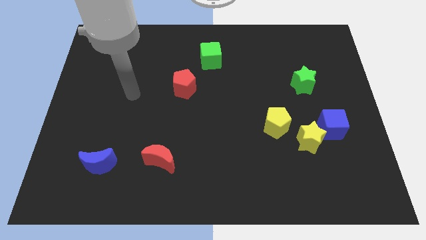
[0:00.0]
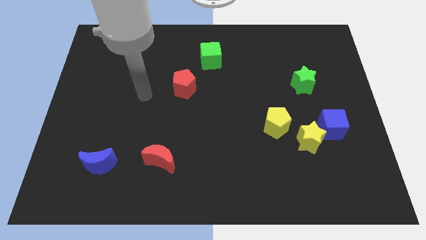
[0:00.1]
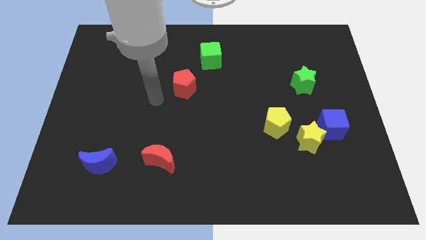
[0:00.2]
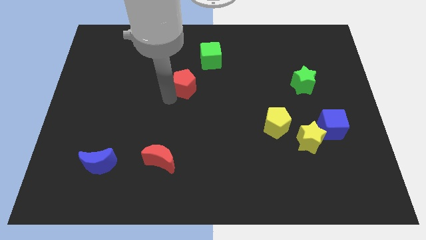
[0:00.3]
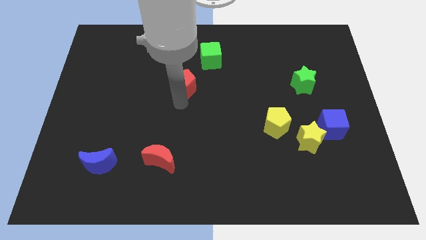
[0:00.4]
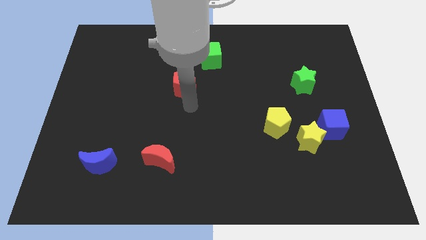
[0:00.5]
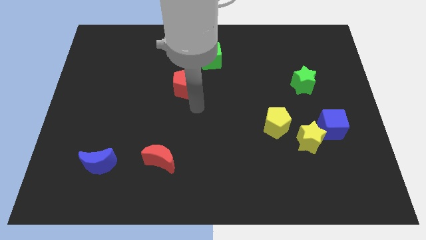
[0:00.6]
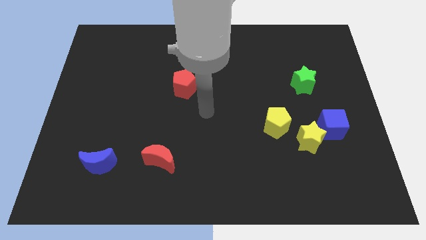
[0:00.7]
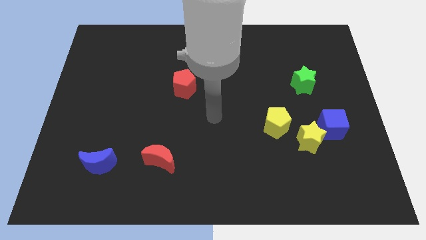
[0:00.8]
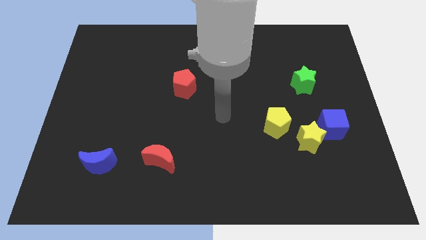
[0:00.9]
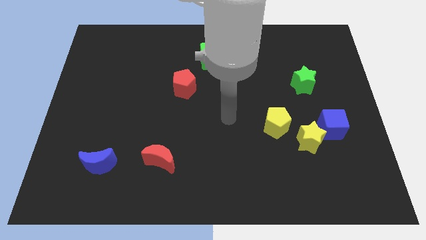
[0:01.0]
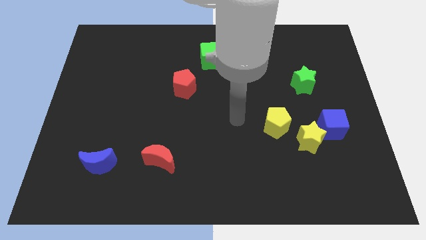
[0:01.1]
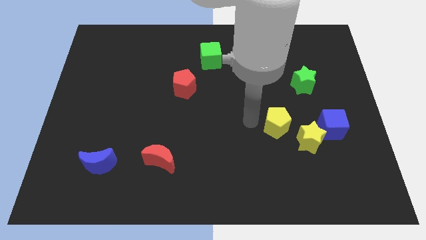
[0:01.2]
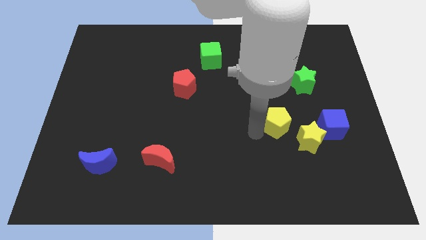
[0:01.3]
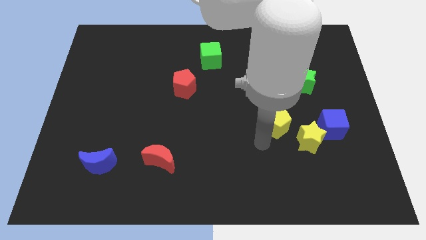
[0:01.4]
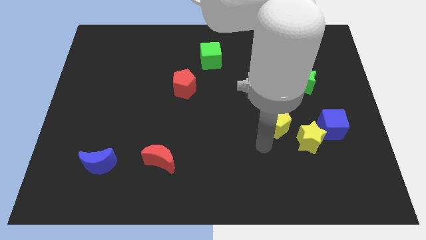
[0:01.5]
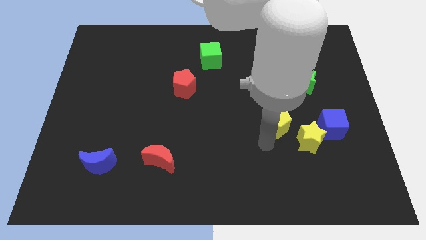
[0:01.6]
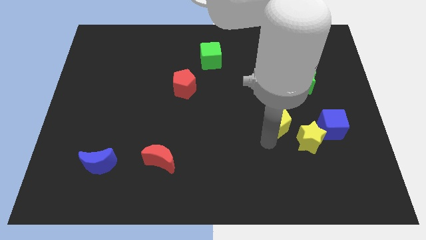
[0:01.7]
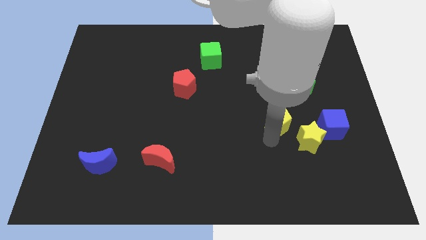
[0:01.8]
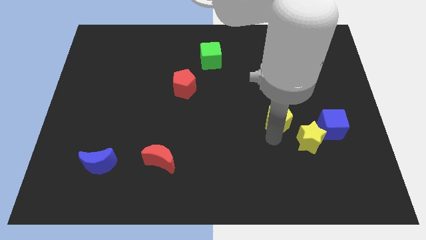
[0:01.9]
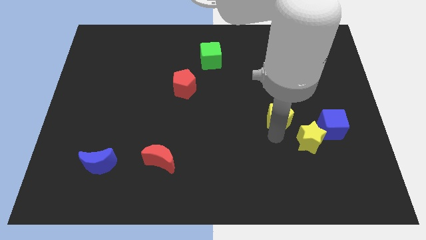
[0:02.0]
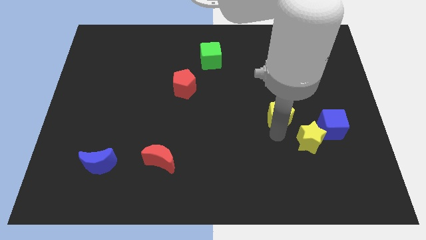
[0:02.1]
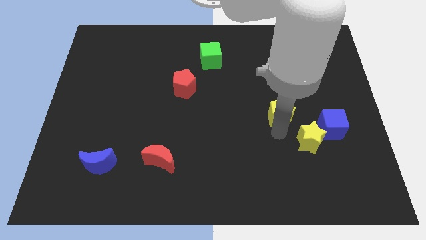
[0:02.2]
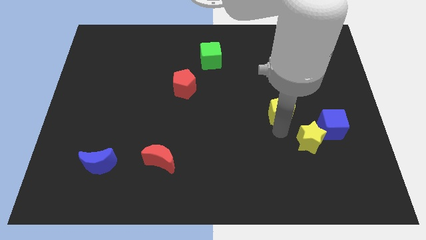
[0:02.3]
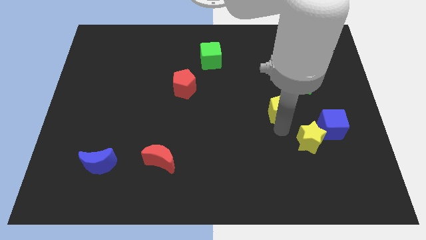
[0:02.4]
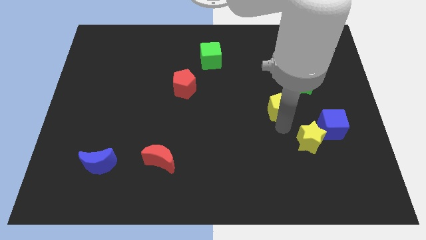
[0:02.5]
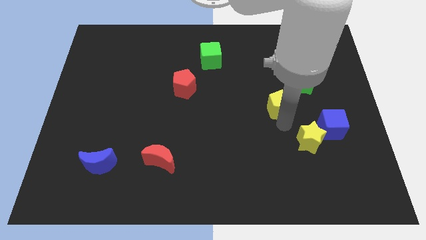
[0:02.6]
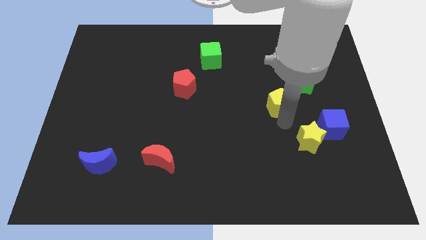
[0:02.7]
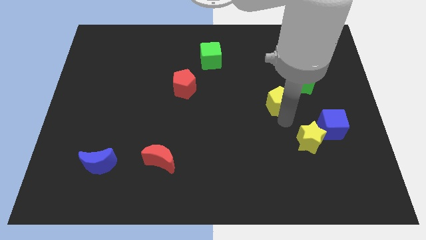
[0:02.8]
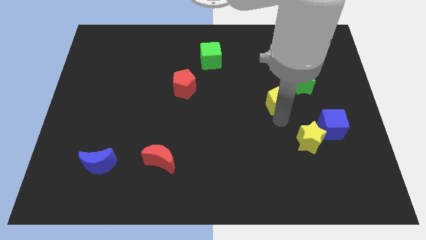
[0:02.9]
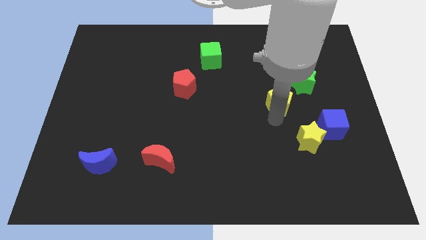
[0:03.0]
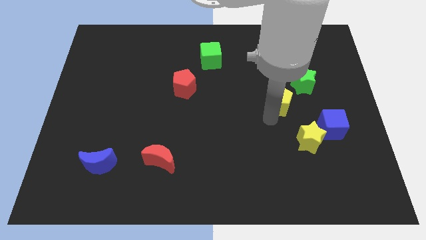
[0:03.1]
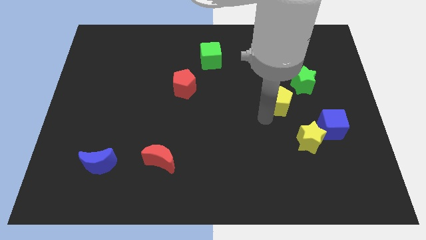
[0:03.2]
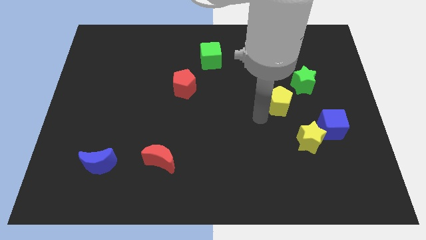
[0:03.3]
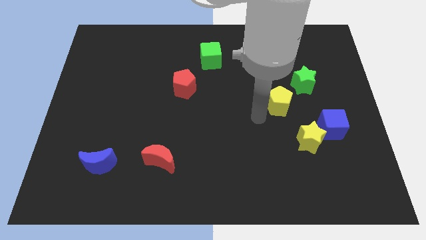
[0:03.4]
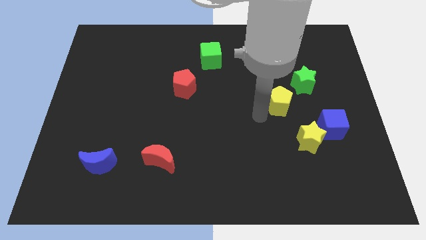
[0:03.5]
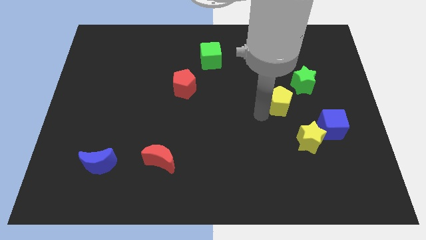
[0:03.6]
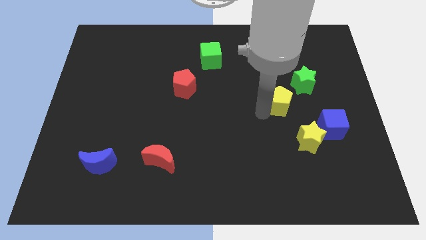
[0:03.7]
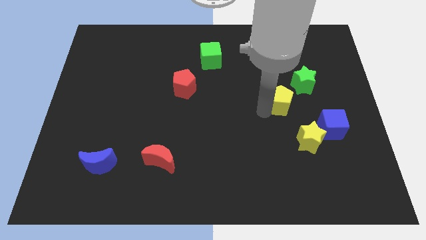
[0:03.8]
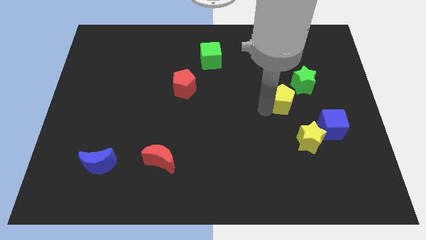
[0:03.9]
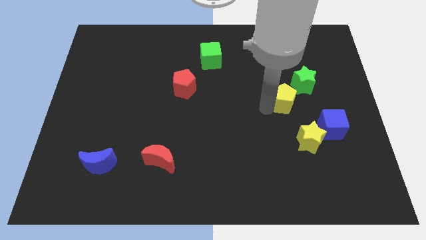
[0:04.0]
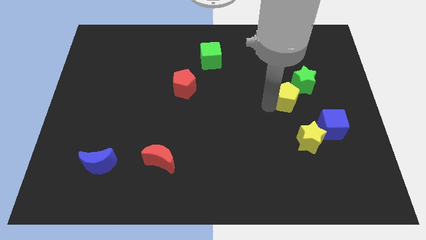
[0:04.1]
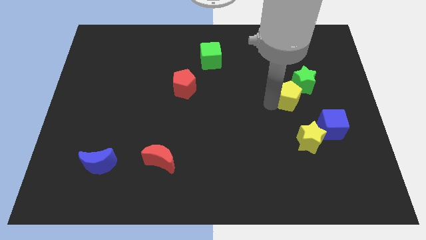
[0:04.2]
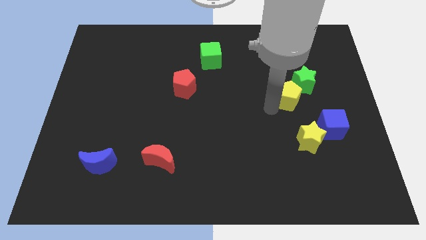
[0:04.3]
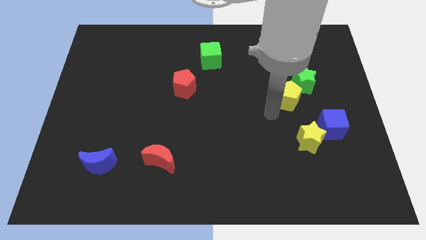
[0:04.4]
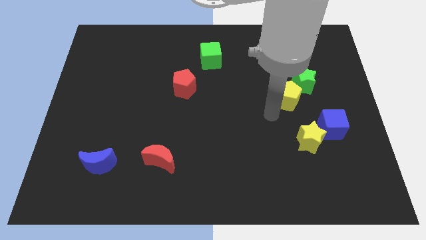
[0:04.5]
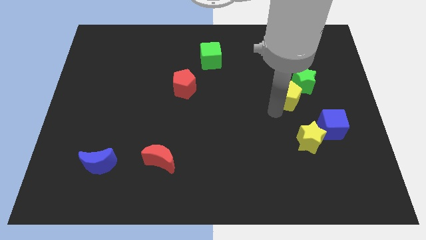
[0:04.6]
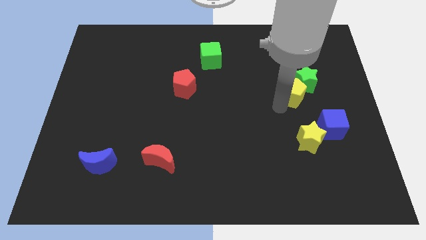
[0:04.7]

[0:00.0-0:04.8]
move the yellow pentagon next to the green star

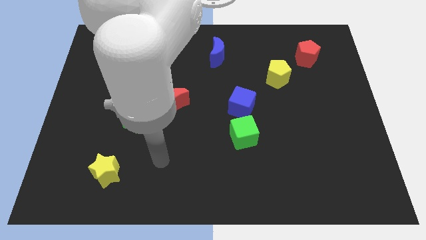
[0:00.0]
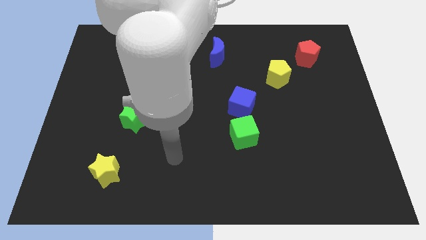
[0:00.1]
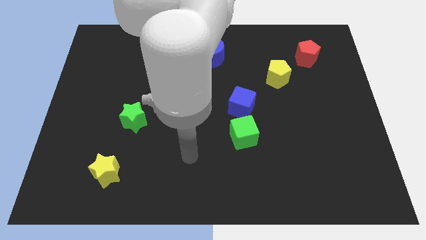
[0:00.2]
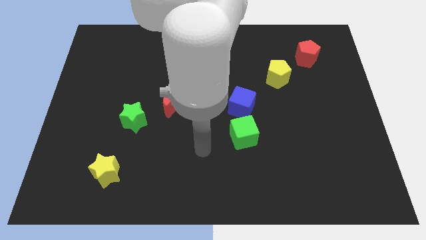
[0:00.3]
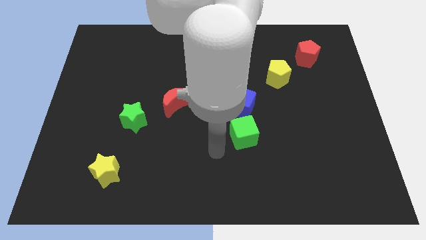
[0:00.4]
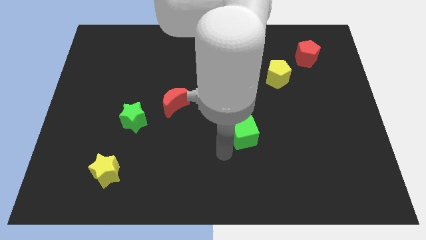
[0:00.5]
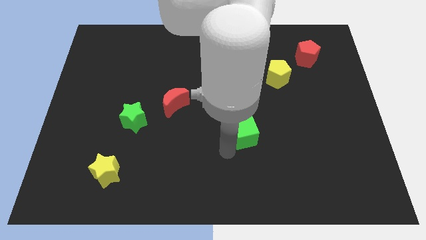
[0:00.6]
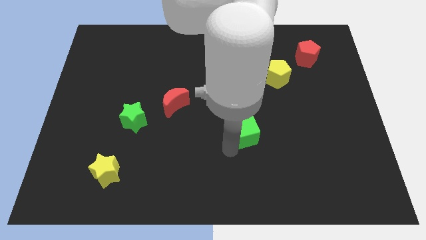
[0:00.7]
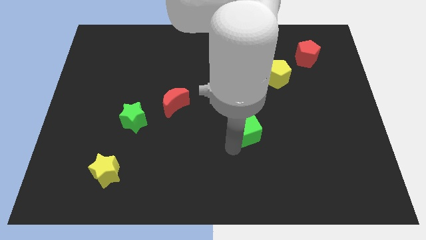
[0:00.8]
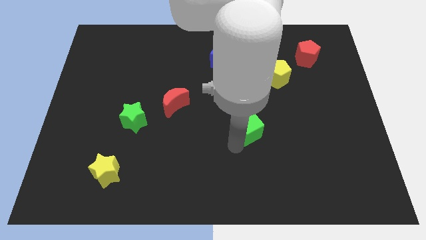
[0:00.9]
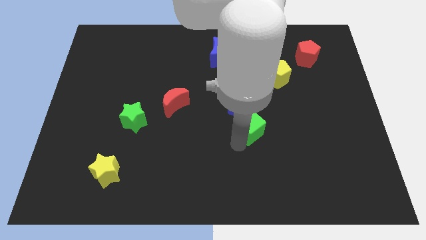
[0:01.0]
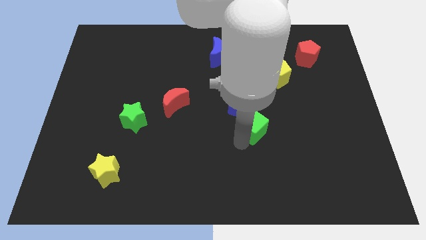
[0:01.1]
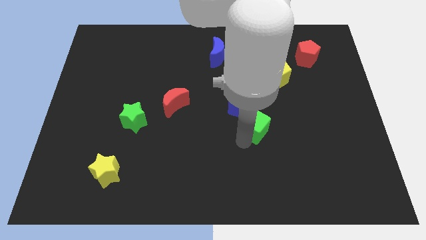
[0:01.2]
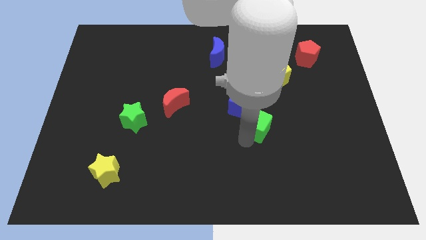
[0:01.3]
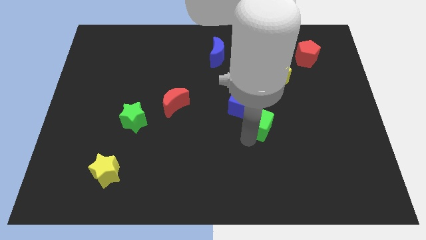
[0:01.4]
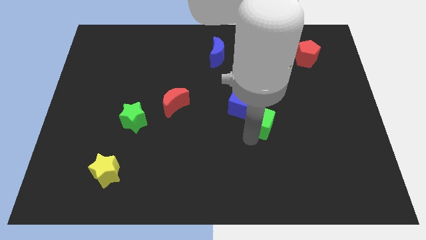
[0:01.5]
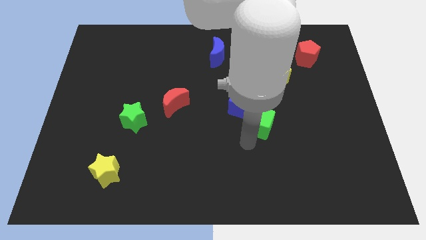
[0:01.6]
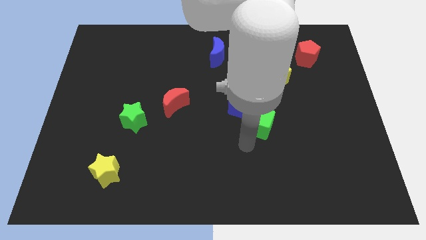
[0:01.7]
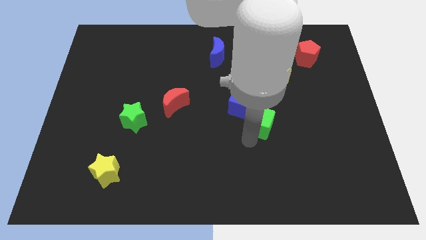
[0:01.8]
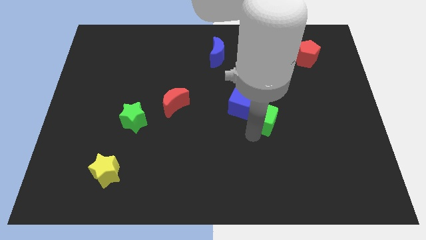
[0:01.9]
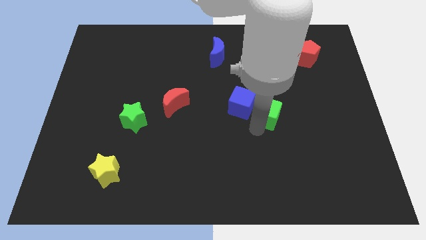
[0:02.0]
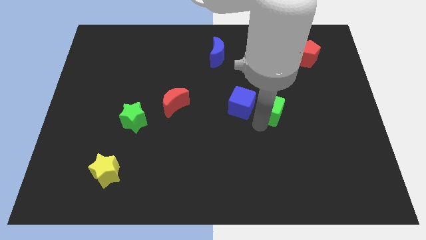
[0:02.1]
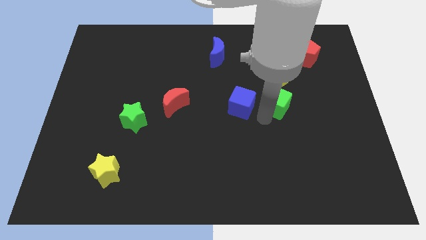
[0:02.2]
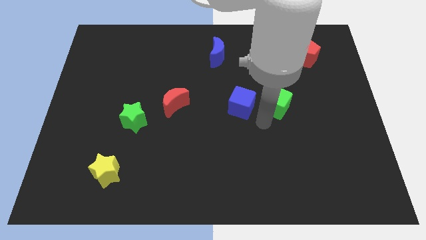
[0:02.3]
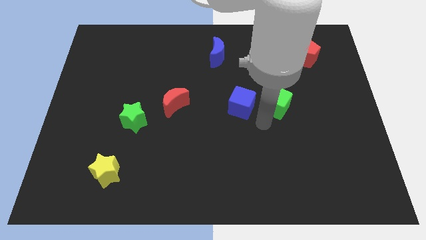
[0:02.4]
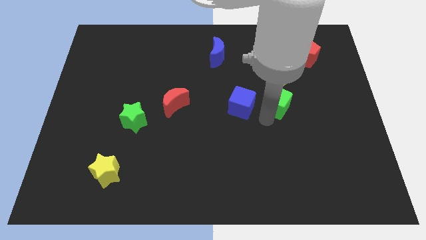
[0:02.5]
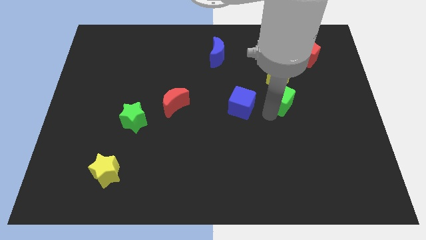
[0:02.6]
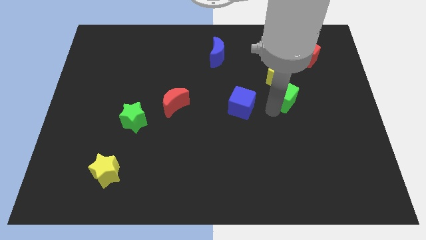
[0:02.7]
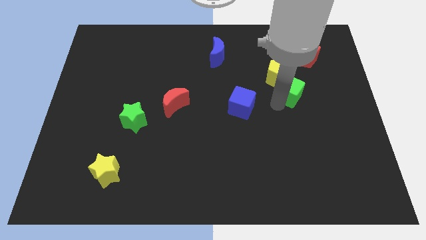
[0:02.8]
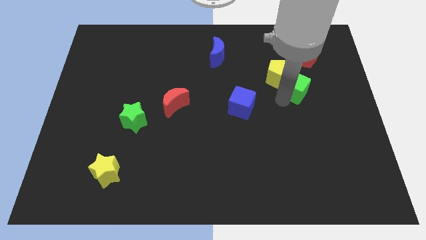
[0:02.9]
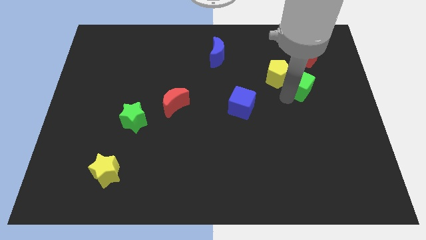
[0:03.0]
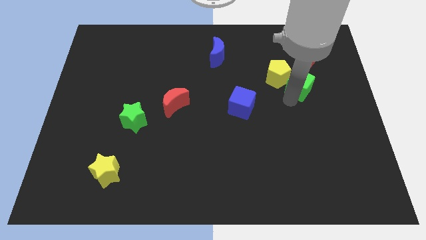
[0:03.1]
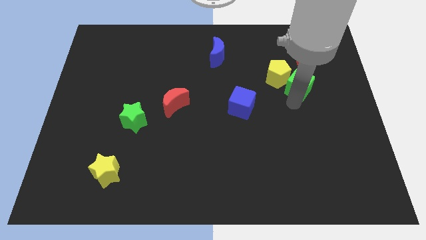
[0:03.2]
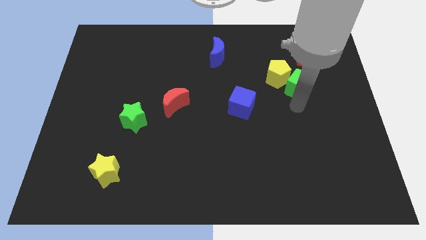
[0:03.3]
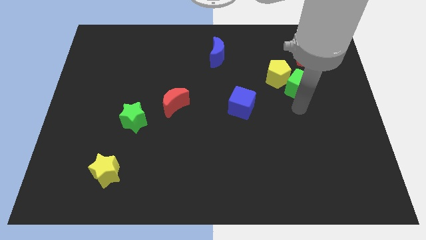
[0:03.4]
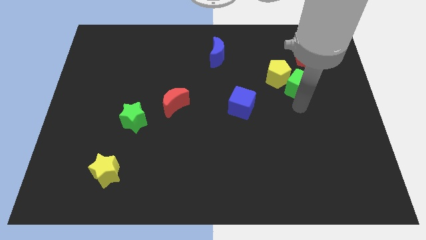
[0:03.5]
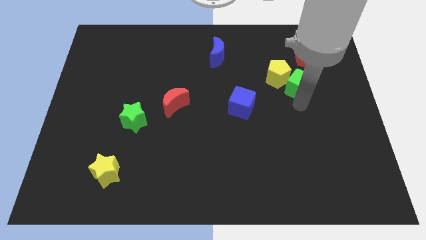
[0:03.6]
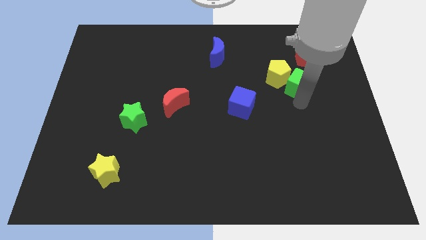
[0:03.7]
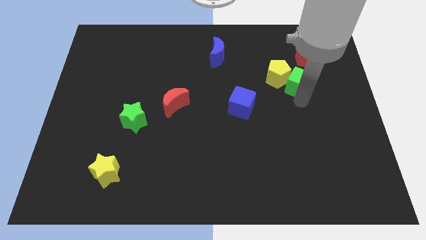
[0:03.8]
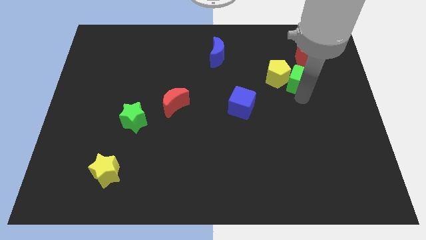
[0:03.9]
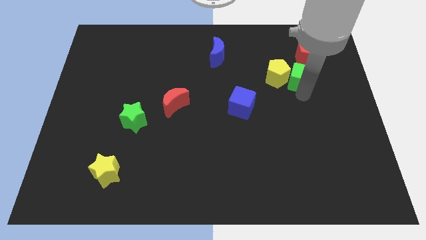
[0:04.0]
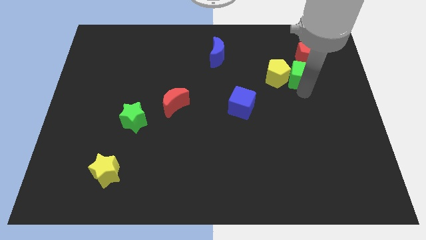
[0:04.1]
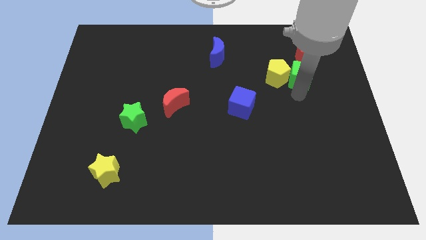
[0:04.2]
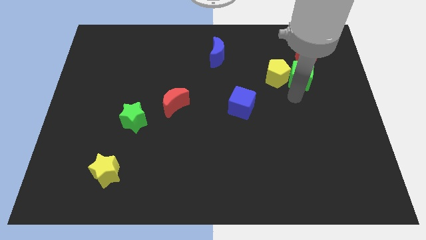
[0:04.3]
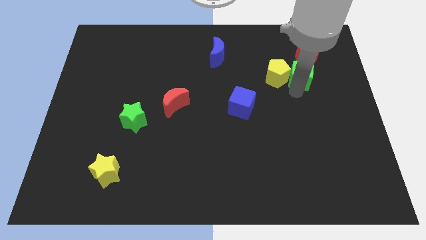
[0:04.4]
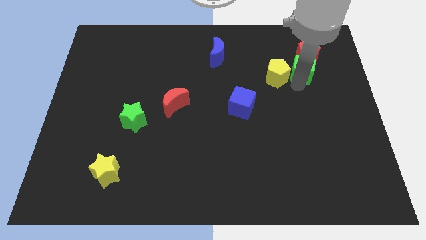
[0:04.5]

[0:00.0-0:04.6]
move the green cube close to the red pentagon
